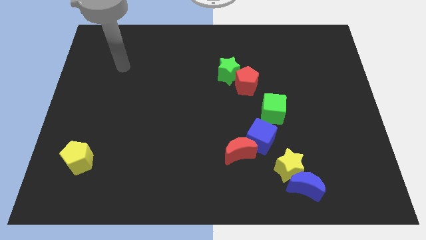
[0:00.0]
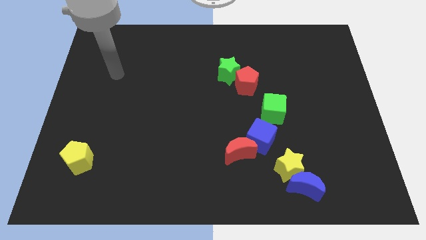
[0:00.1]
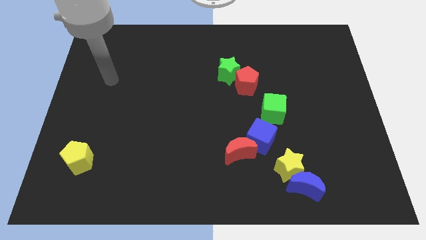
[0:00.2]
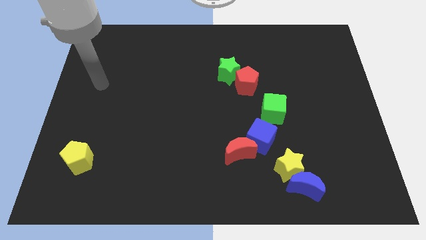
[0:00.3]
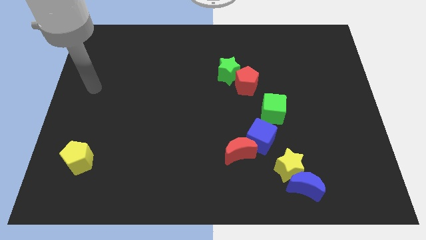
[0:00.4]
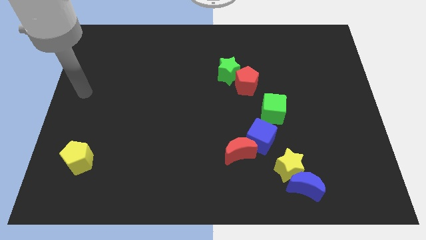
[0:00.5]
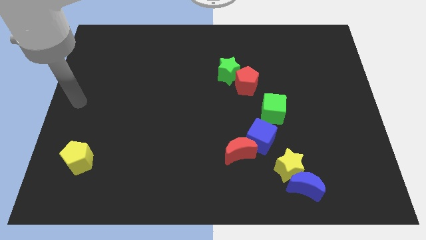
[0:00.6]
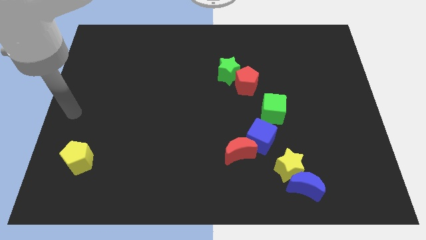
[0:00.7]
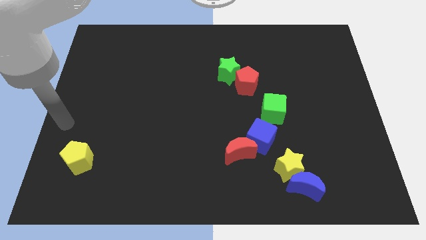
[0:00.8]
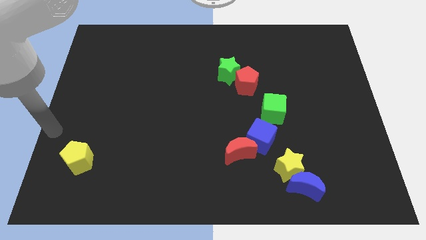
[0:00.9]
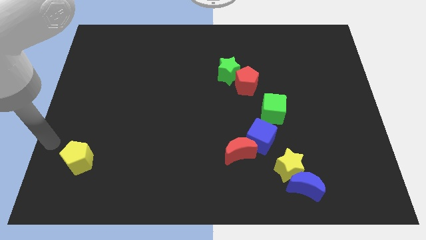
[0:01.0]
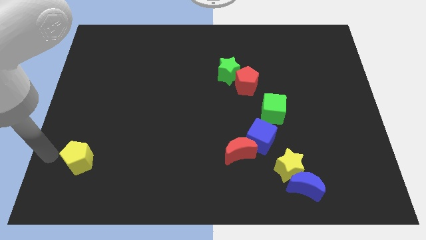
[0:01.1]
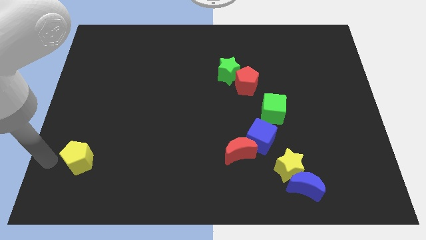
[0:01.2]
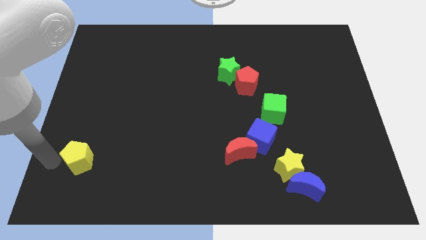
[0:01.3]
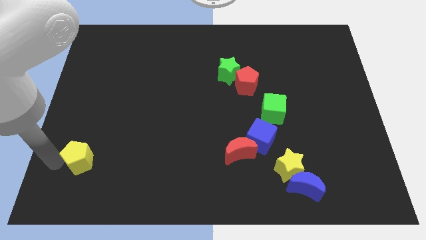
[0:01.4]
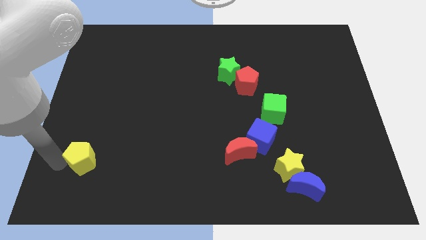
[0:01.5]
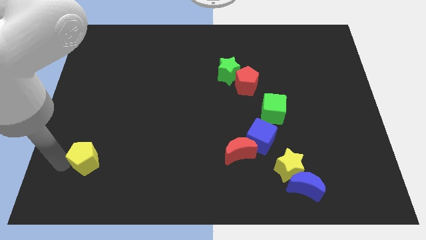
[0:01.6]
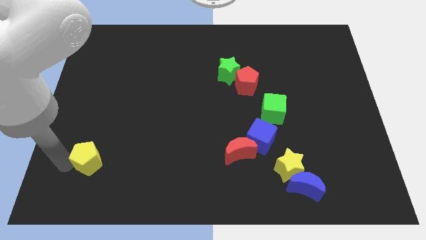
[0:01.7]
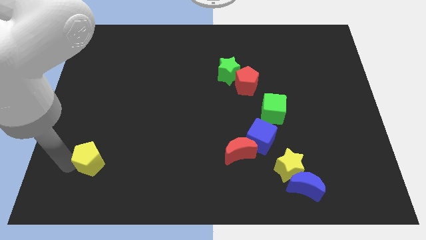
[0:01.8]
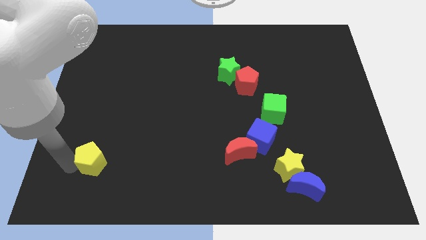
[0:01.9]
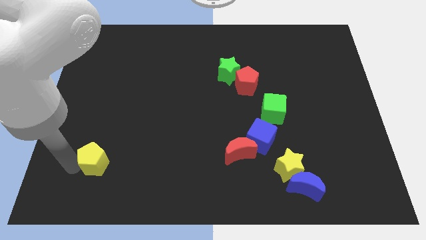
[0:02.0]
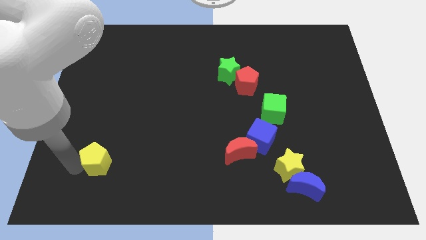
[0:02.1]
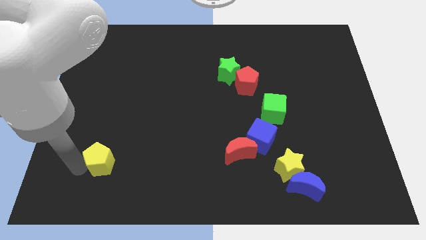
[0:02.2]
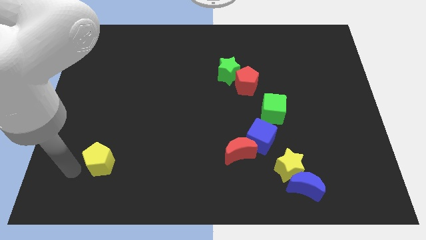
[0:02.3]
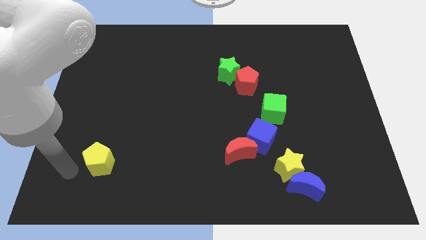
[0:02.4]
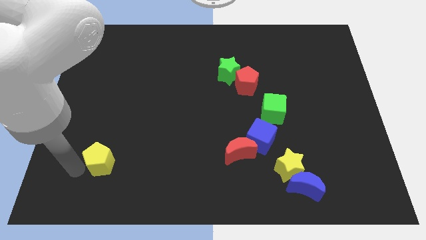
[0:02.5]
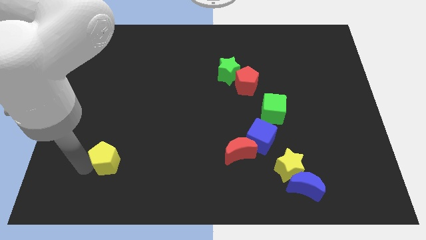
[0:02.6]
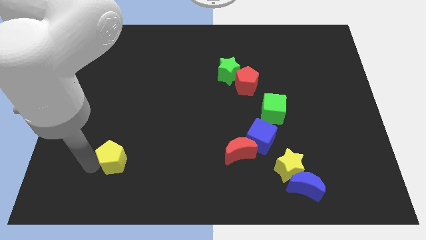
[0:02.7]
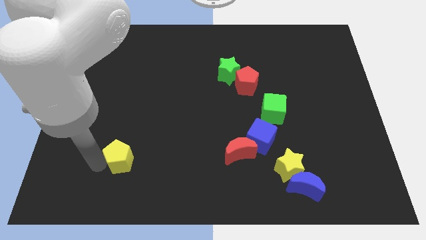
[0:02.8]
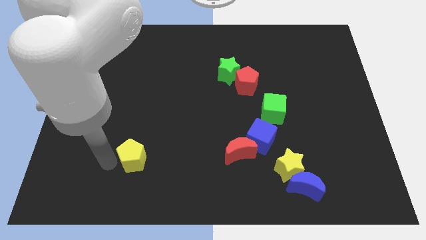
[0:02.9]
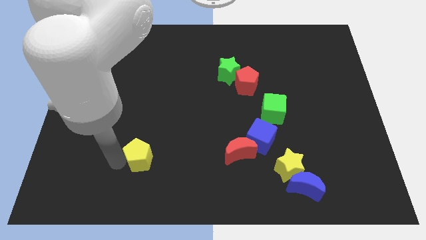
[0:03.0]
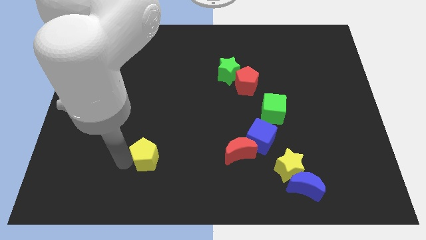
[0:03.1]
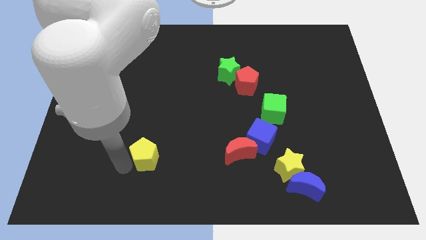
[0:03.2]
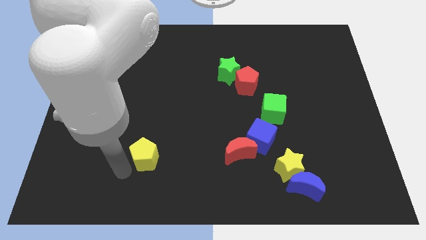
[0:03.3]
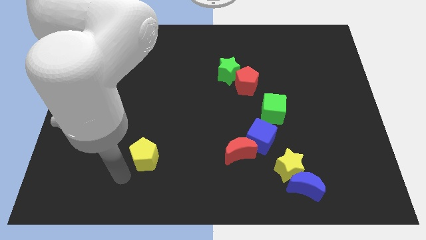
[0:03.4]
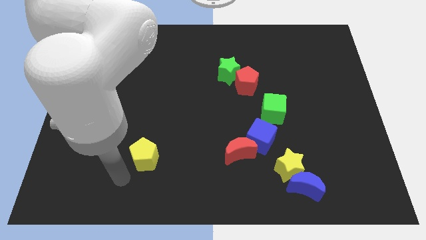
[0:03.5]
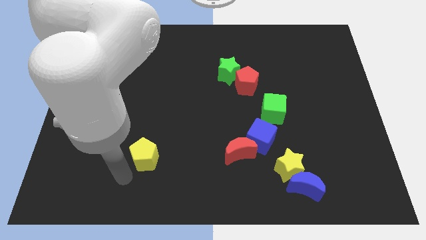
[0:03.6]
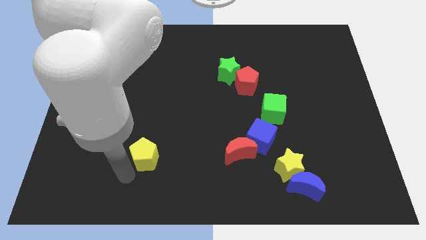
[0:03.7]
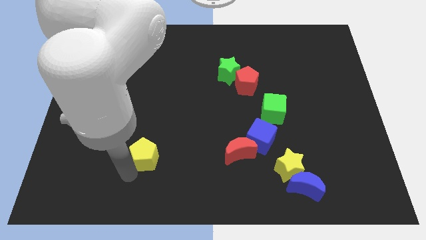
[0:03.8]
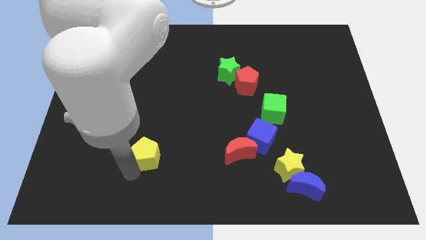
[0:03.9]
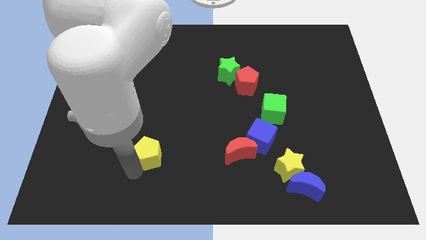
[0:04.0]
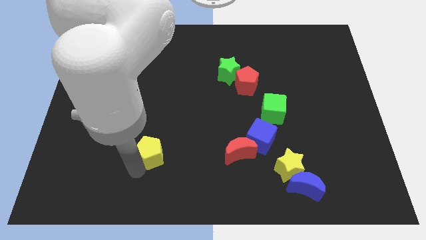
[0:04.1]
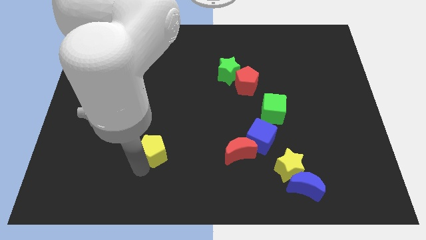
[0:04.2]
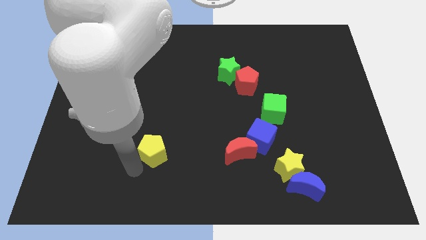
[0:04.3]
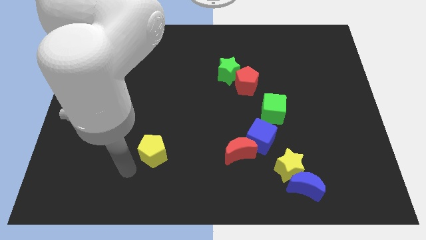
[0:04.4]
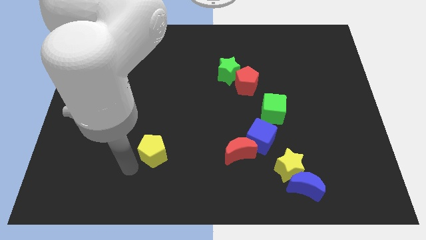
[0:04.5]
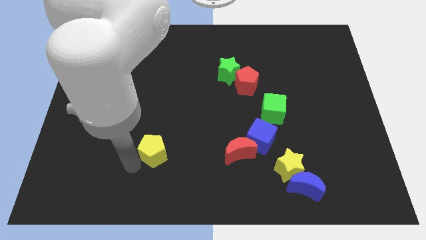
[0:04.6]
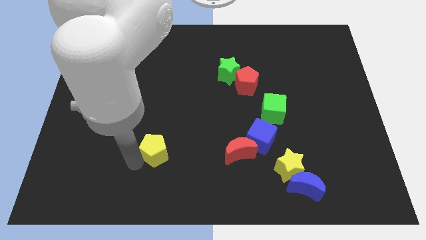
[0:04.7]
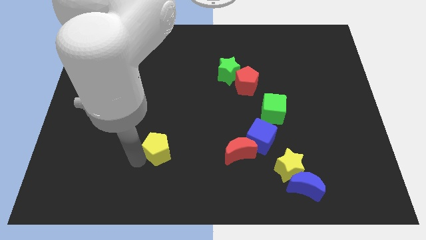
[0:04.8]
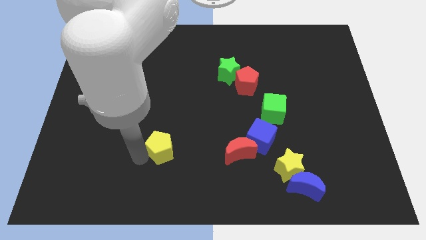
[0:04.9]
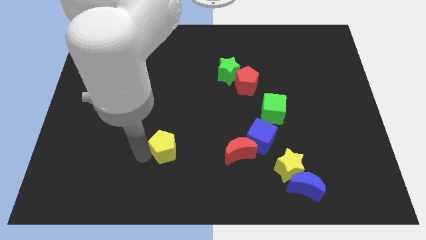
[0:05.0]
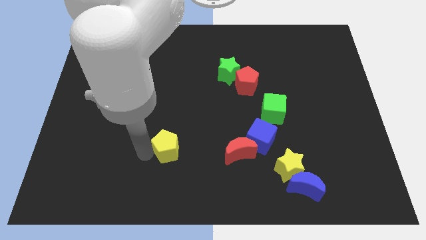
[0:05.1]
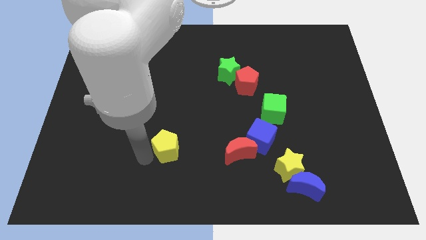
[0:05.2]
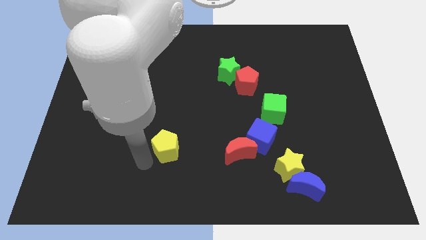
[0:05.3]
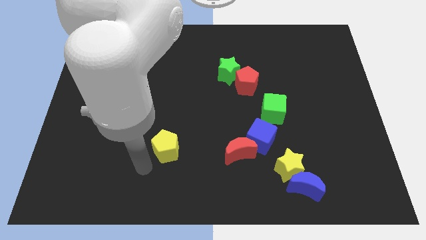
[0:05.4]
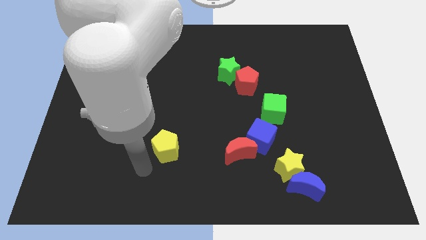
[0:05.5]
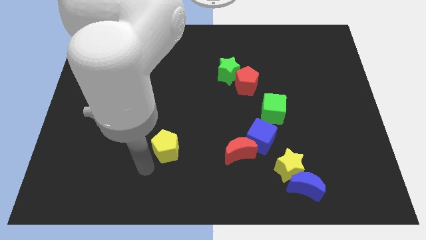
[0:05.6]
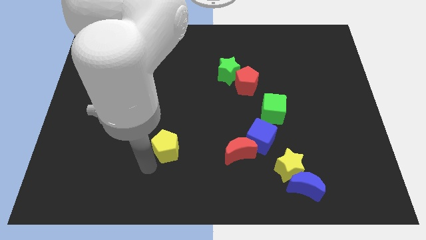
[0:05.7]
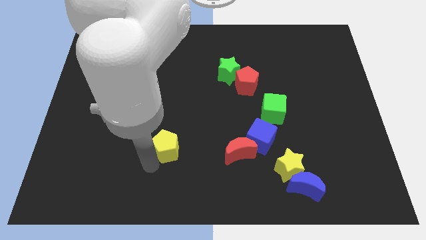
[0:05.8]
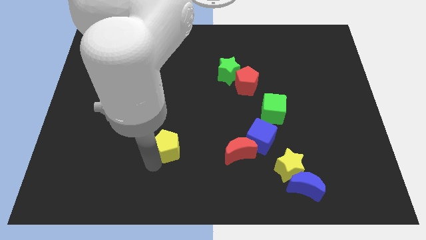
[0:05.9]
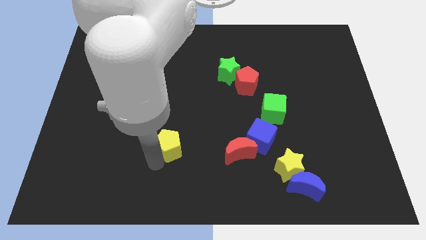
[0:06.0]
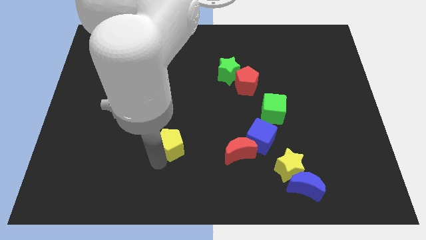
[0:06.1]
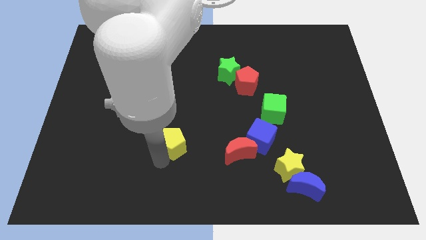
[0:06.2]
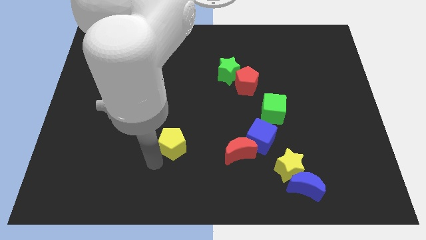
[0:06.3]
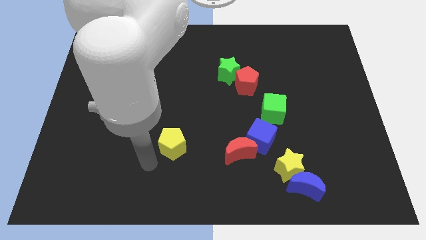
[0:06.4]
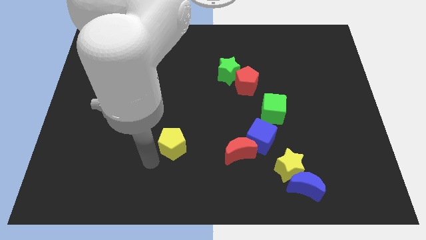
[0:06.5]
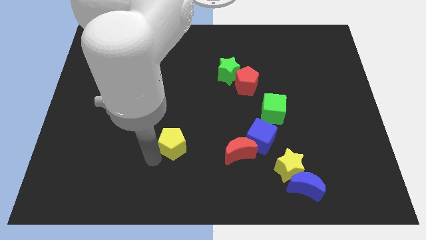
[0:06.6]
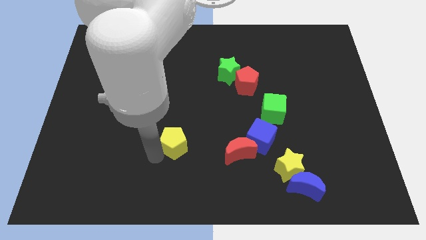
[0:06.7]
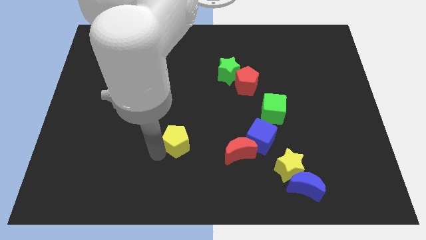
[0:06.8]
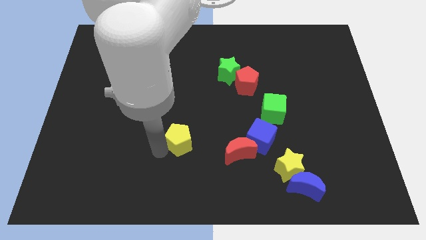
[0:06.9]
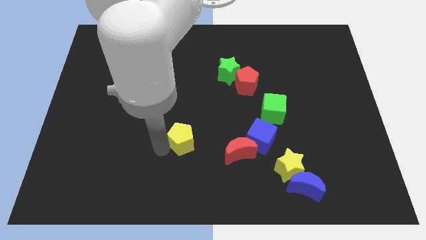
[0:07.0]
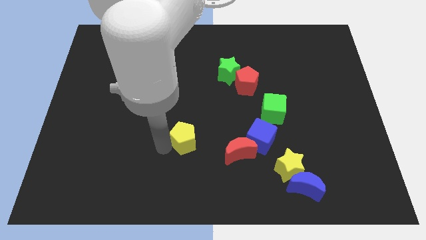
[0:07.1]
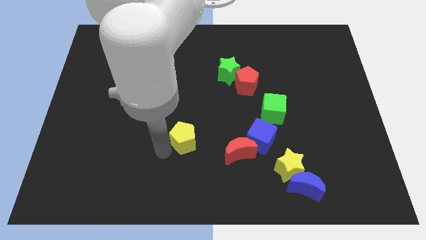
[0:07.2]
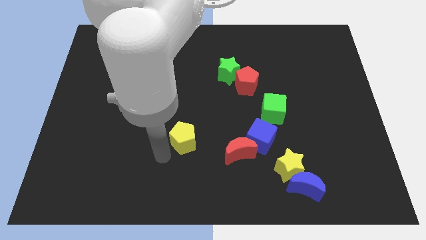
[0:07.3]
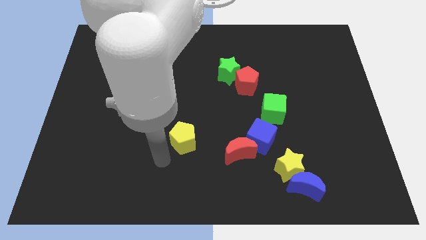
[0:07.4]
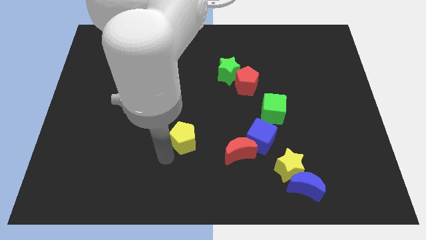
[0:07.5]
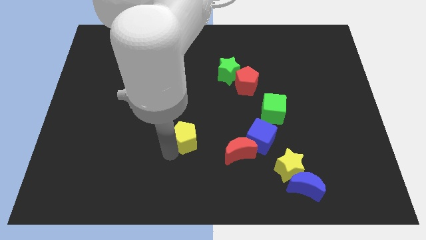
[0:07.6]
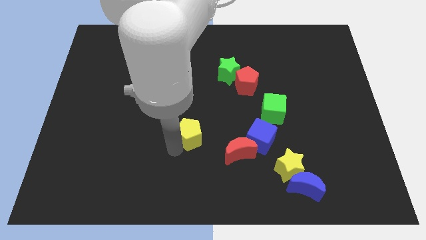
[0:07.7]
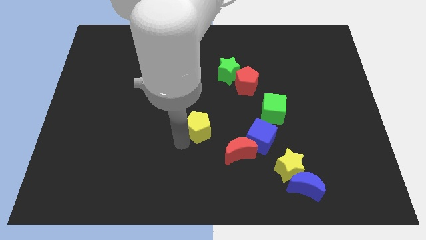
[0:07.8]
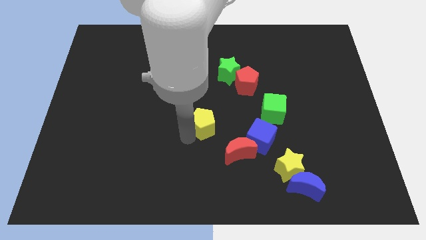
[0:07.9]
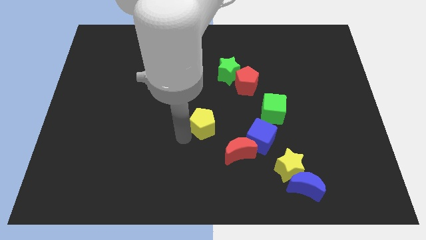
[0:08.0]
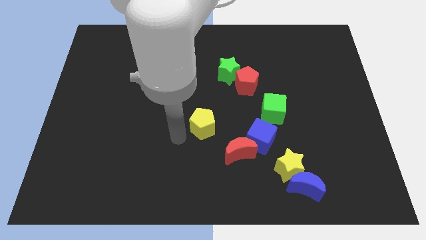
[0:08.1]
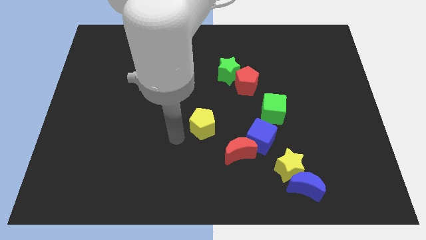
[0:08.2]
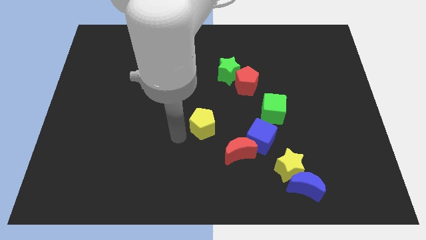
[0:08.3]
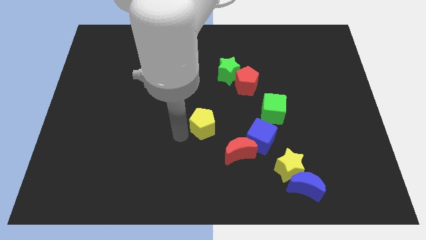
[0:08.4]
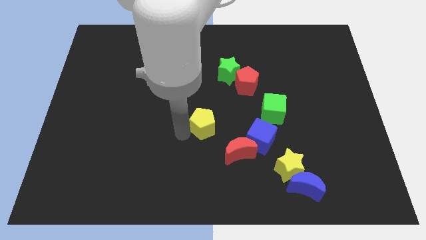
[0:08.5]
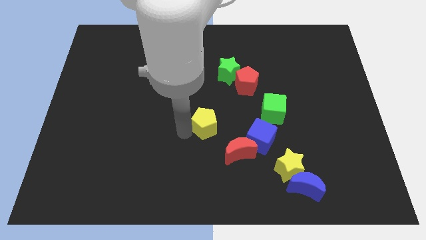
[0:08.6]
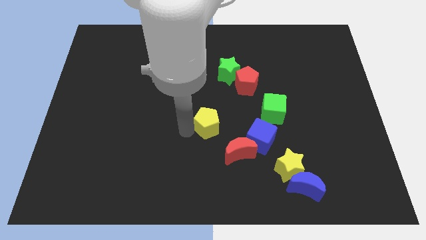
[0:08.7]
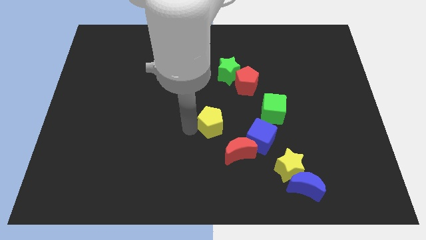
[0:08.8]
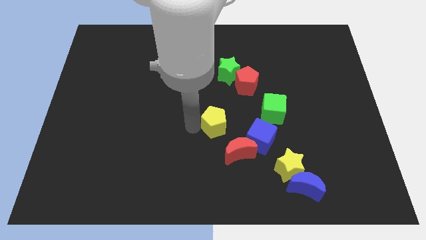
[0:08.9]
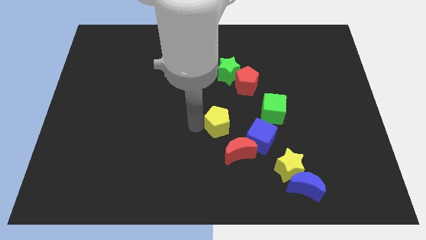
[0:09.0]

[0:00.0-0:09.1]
slide the yellow pentagon to the top of the red moon
